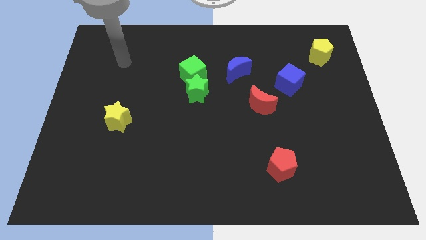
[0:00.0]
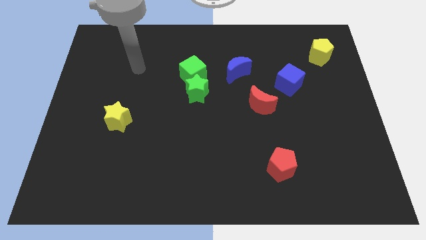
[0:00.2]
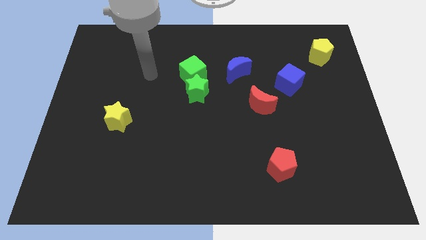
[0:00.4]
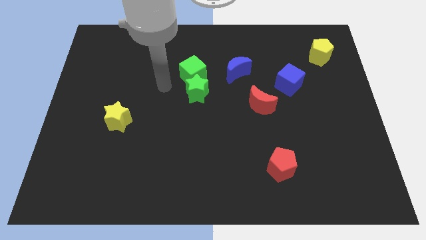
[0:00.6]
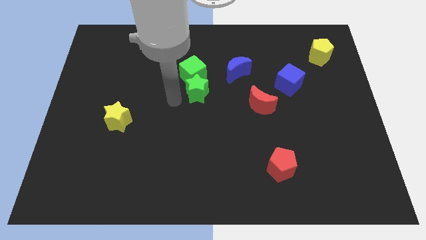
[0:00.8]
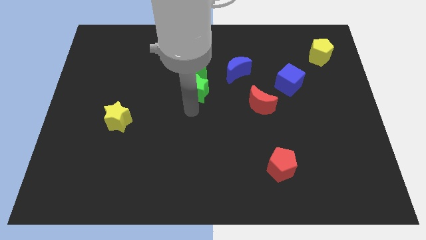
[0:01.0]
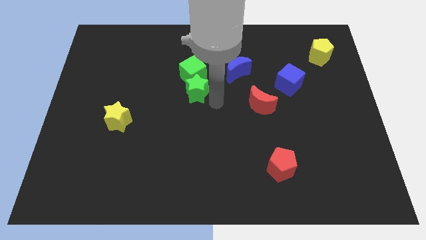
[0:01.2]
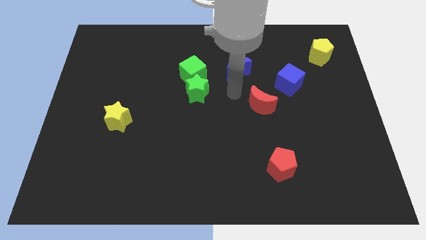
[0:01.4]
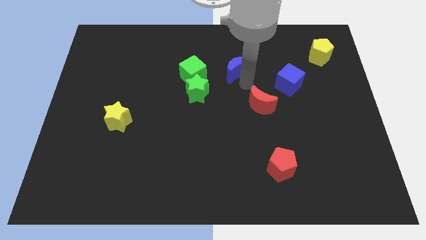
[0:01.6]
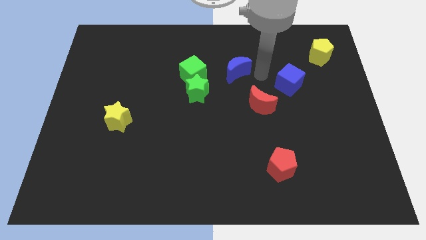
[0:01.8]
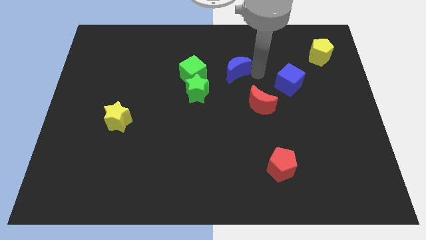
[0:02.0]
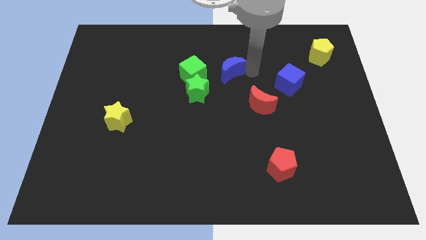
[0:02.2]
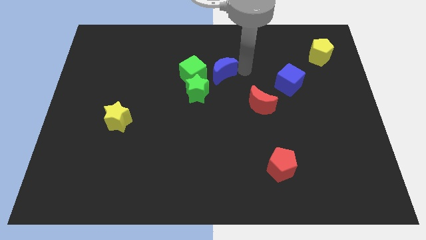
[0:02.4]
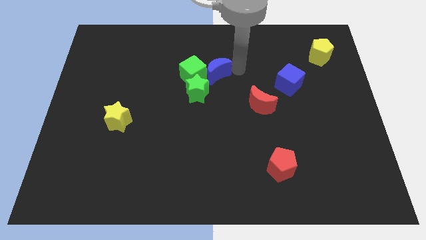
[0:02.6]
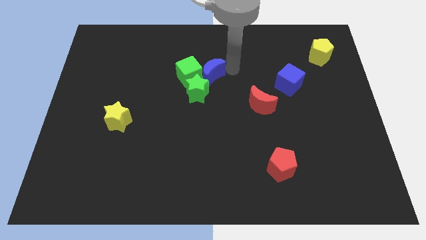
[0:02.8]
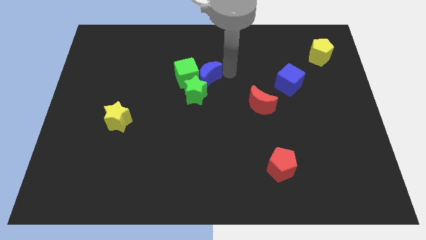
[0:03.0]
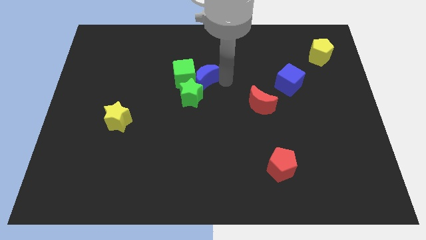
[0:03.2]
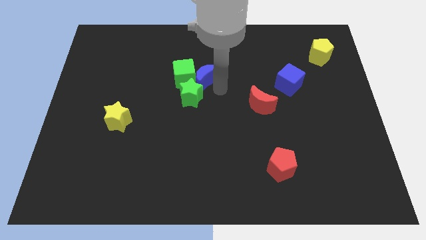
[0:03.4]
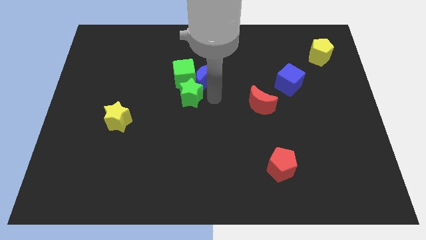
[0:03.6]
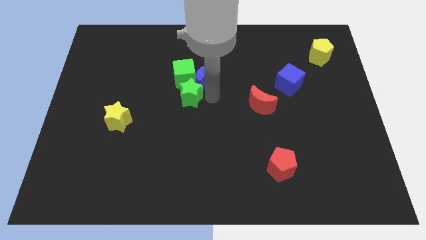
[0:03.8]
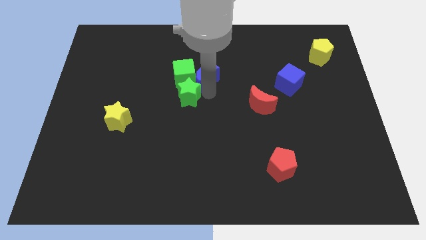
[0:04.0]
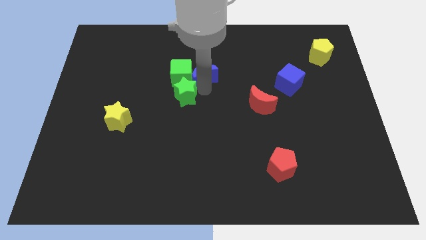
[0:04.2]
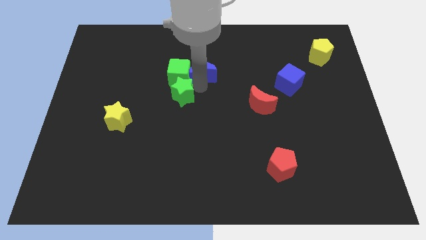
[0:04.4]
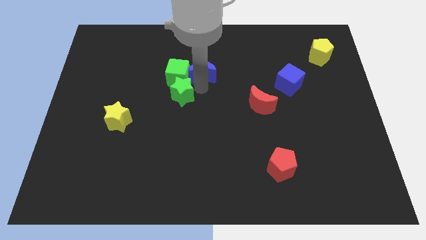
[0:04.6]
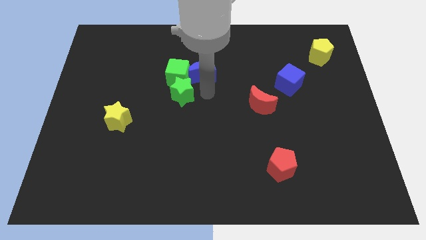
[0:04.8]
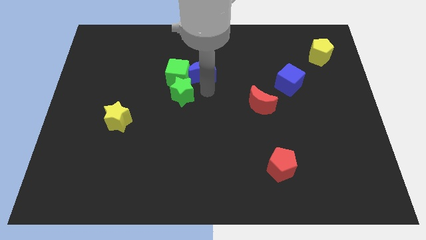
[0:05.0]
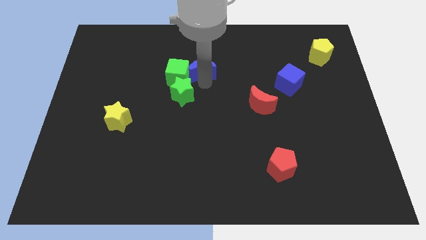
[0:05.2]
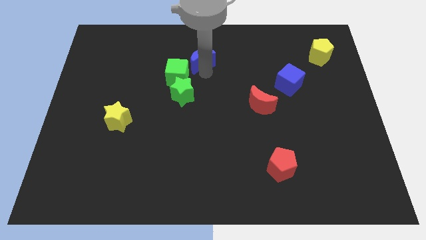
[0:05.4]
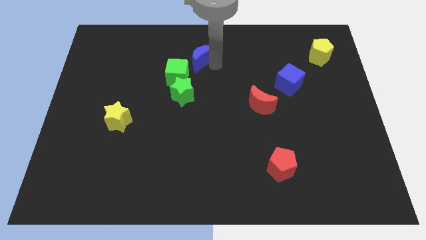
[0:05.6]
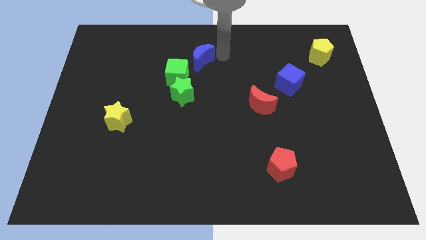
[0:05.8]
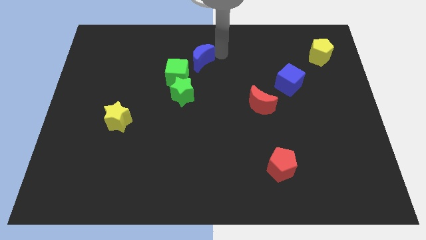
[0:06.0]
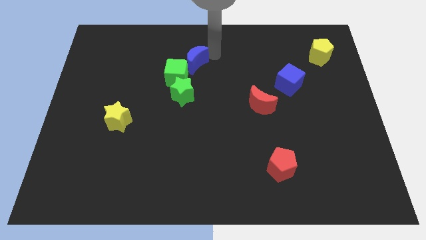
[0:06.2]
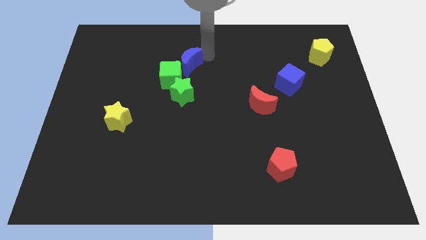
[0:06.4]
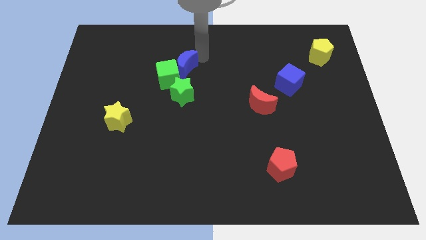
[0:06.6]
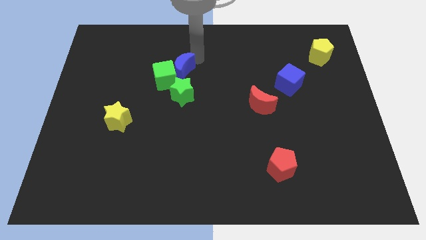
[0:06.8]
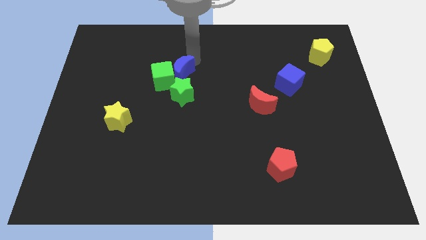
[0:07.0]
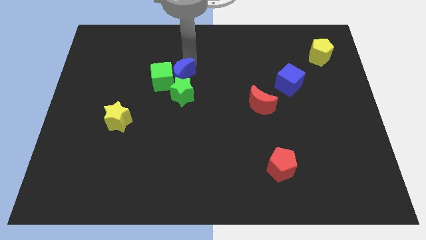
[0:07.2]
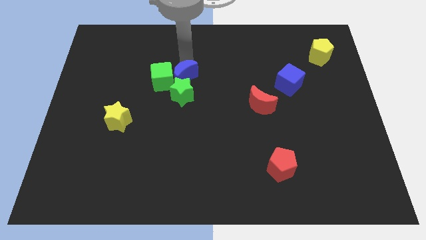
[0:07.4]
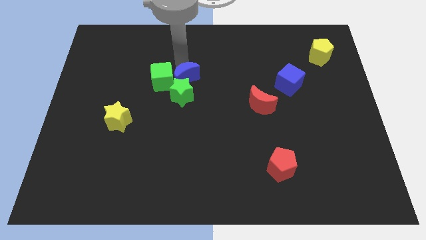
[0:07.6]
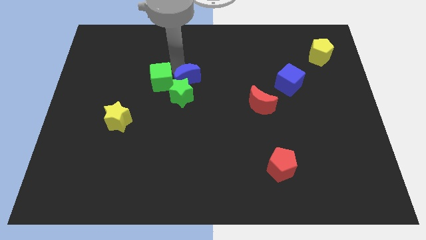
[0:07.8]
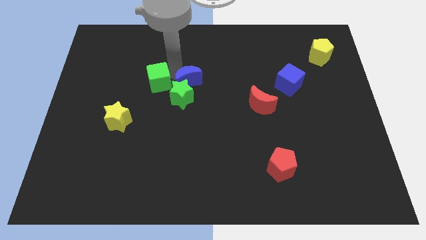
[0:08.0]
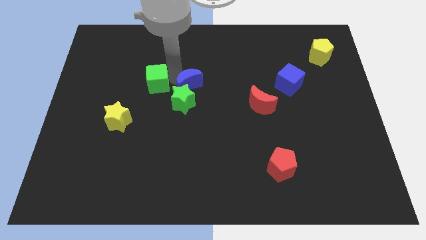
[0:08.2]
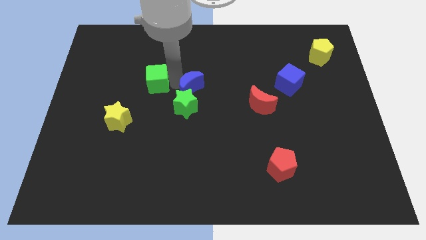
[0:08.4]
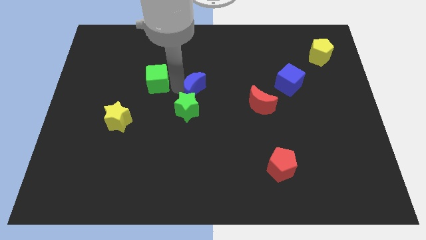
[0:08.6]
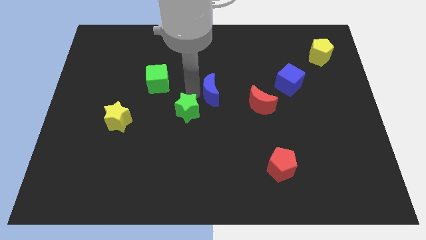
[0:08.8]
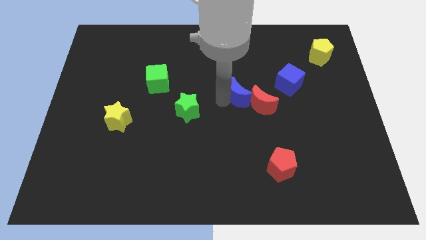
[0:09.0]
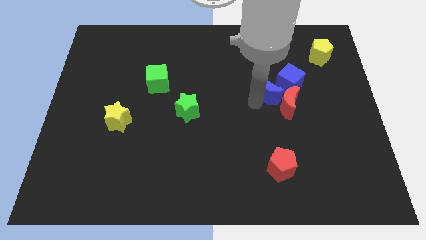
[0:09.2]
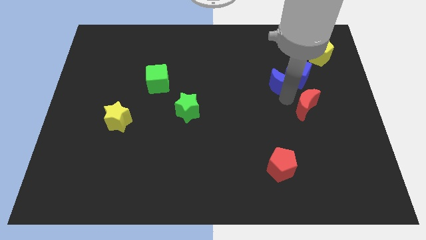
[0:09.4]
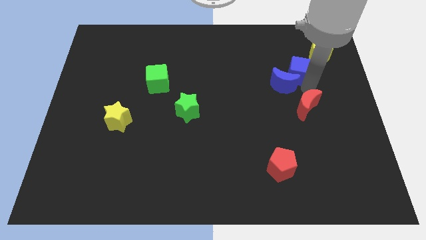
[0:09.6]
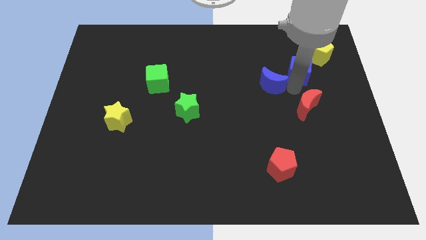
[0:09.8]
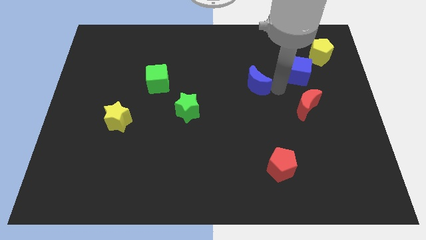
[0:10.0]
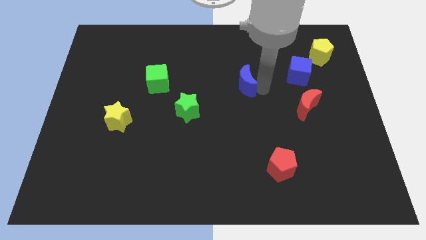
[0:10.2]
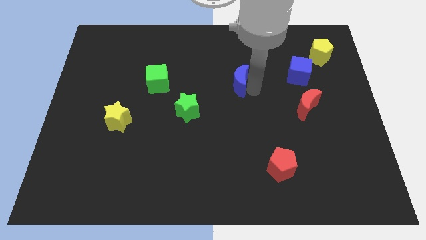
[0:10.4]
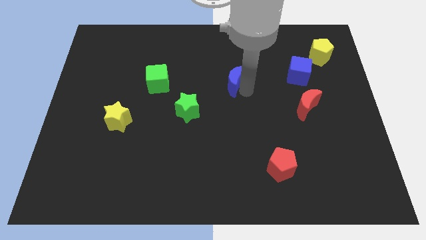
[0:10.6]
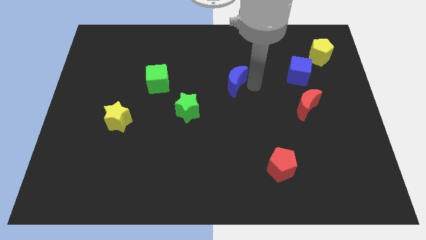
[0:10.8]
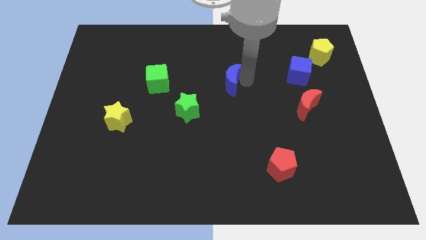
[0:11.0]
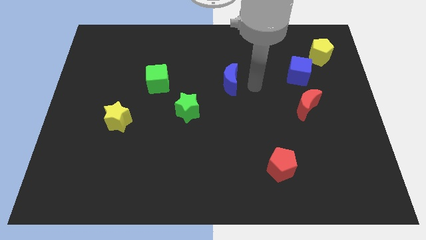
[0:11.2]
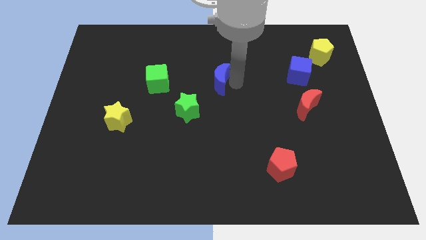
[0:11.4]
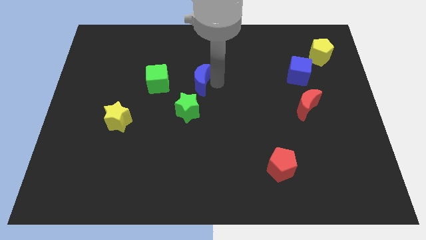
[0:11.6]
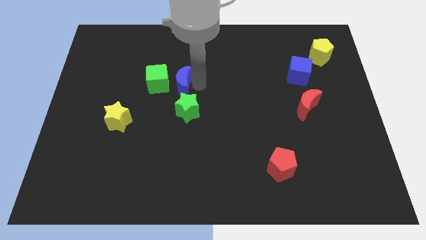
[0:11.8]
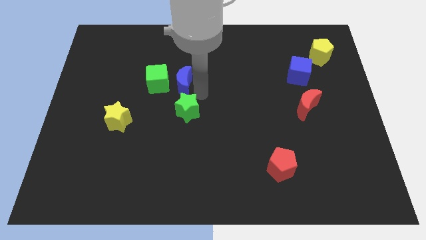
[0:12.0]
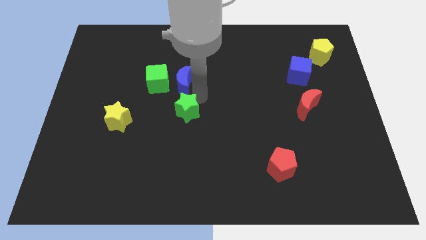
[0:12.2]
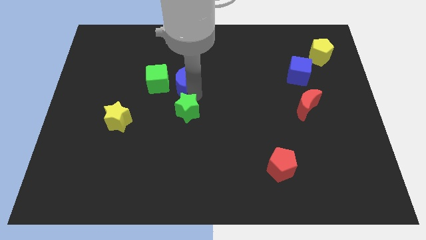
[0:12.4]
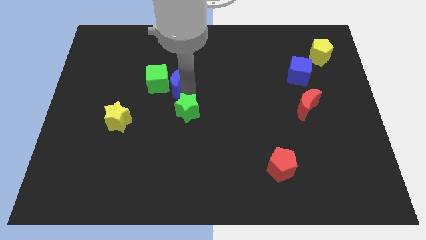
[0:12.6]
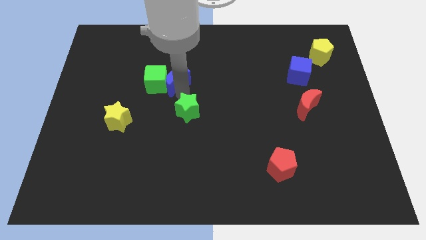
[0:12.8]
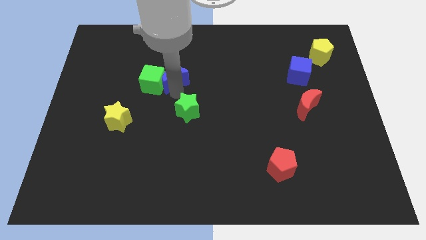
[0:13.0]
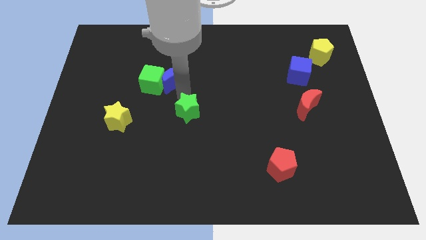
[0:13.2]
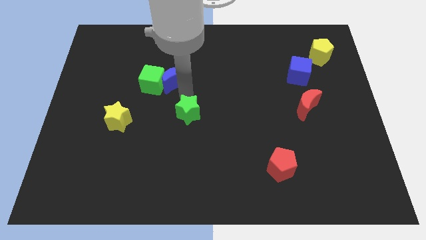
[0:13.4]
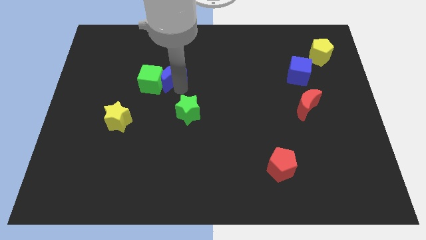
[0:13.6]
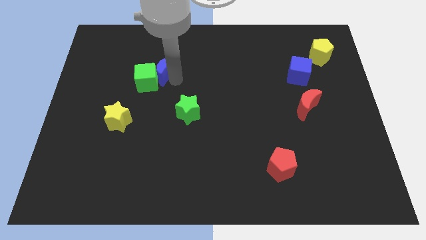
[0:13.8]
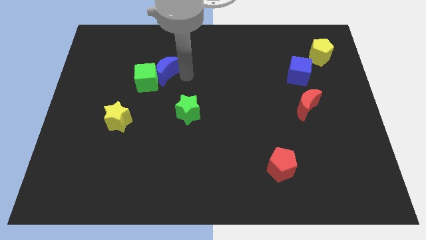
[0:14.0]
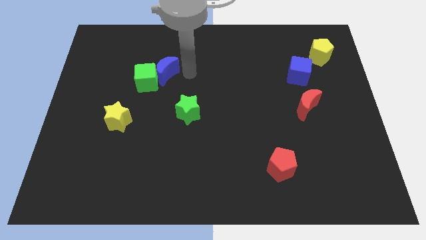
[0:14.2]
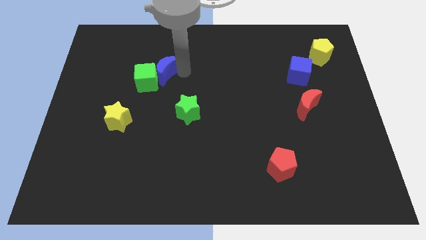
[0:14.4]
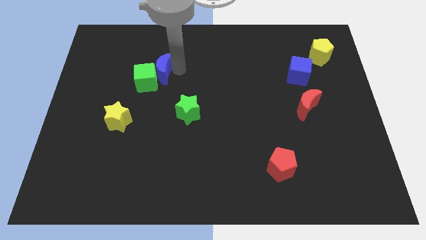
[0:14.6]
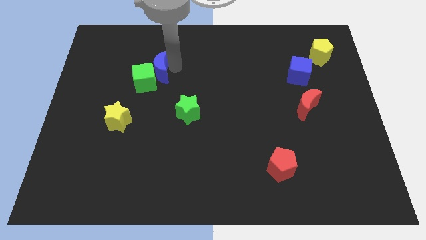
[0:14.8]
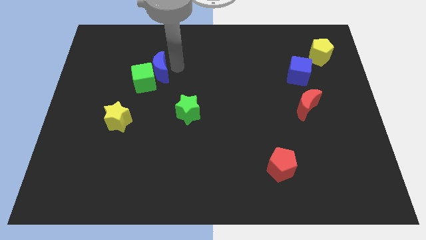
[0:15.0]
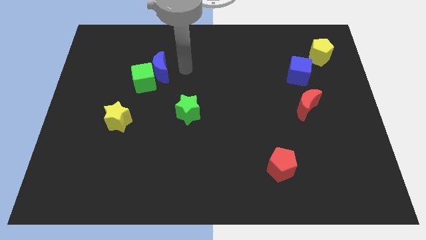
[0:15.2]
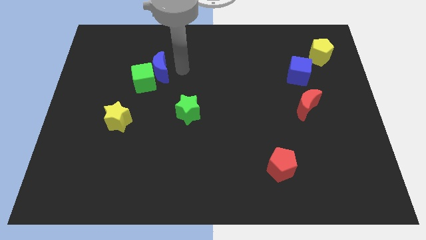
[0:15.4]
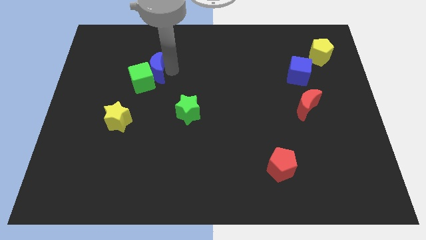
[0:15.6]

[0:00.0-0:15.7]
push the blue moon to the left
